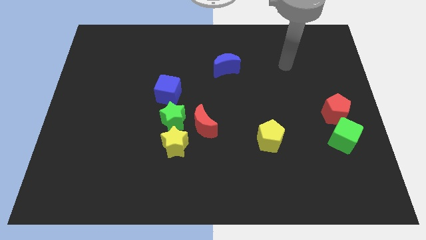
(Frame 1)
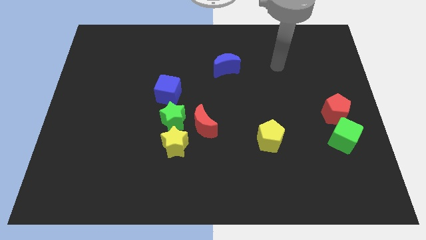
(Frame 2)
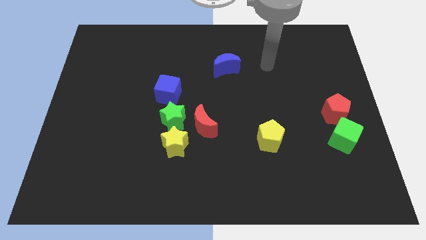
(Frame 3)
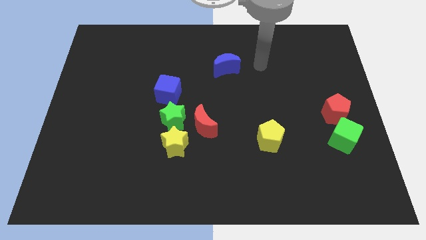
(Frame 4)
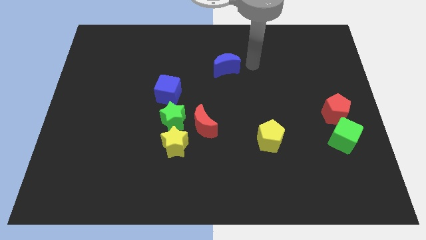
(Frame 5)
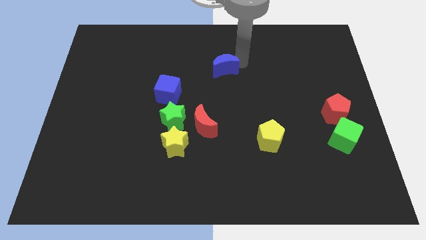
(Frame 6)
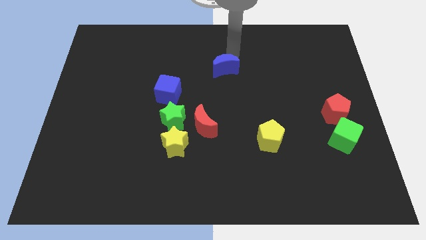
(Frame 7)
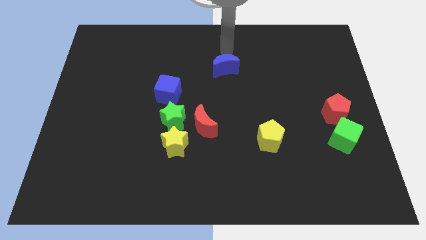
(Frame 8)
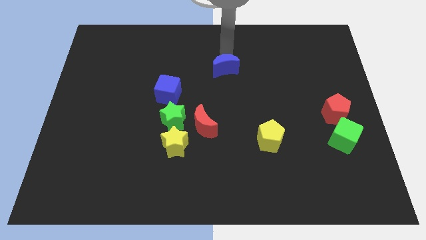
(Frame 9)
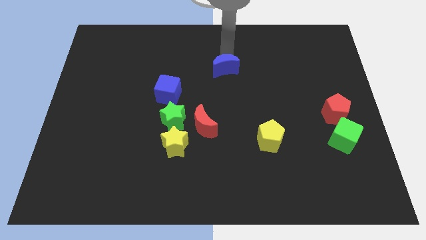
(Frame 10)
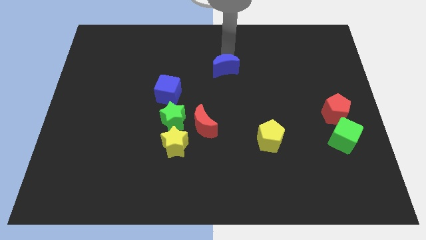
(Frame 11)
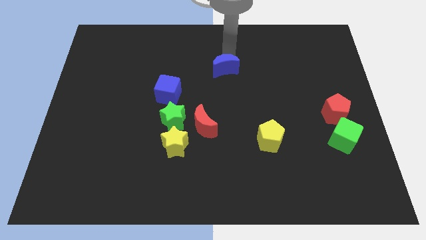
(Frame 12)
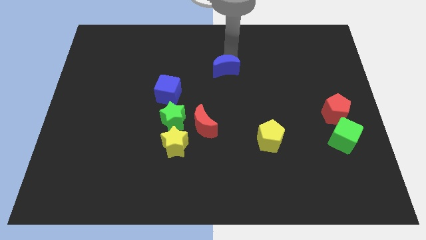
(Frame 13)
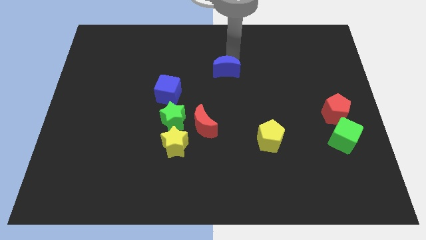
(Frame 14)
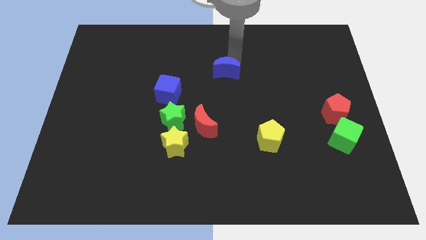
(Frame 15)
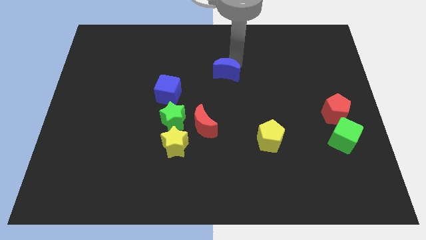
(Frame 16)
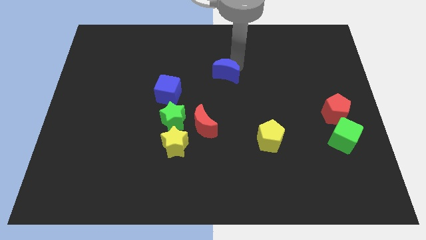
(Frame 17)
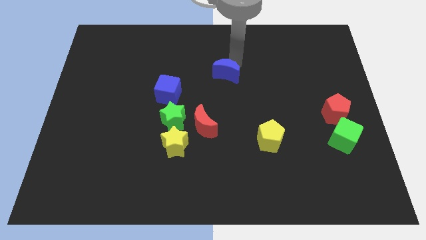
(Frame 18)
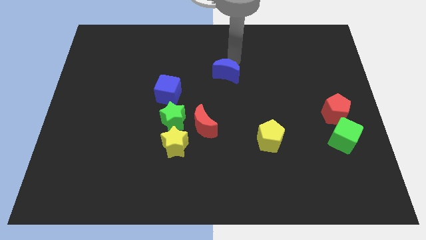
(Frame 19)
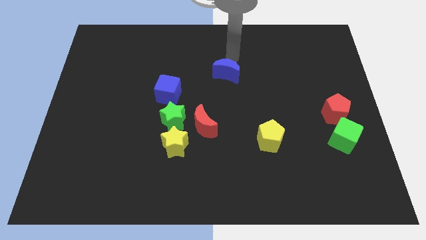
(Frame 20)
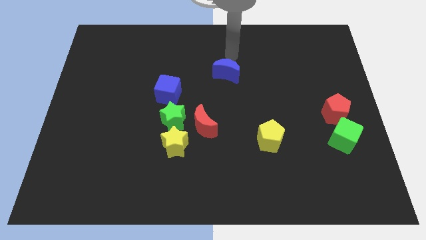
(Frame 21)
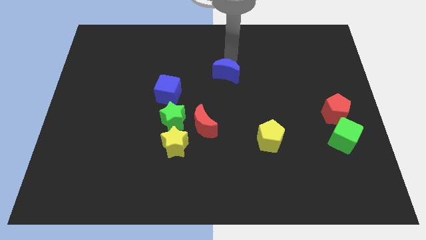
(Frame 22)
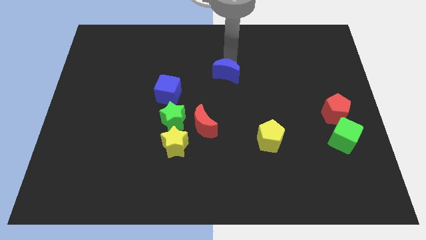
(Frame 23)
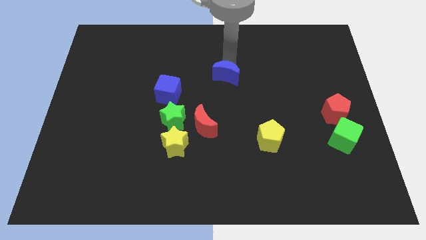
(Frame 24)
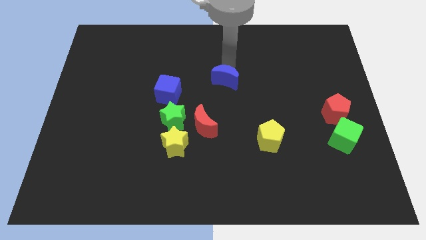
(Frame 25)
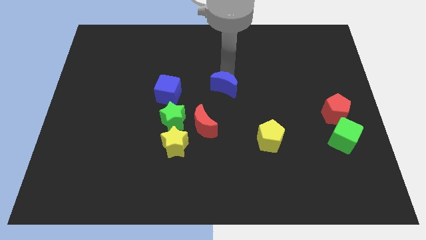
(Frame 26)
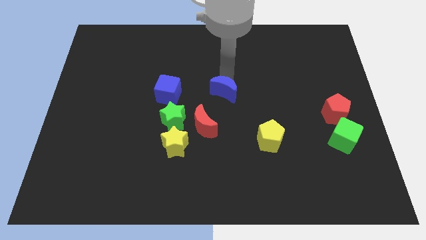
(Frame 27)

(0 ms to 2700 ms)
slightly slide the blue moon down

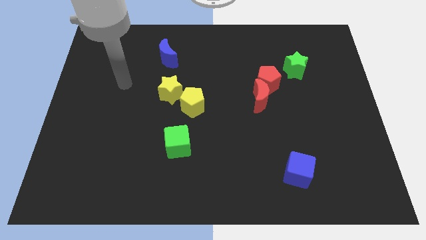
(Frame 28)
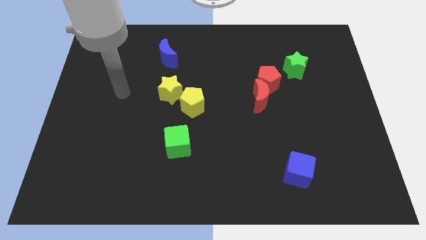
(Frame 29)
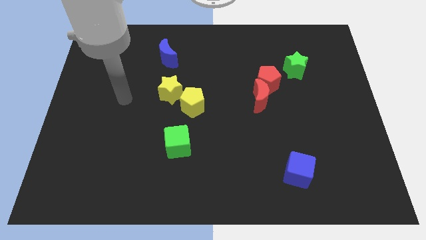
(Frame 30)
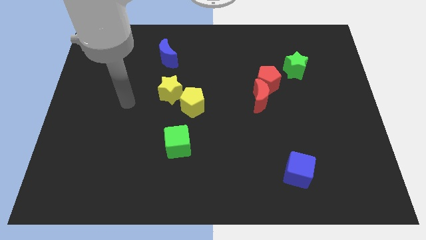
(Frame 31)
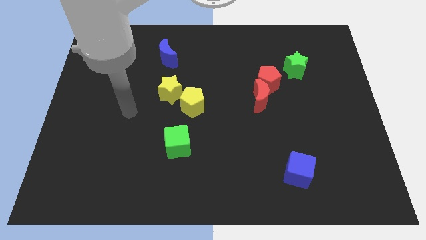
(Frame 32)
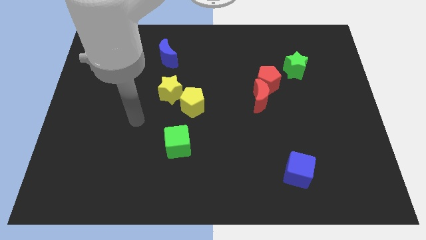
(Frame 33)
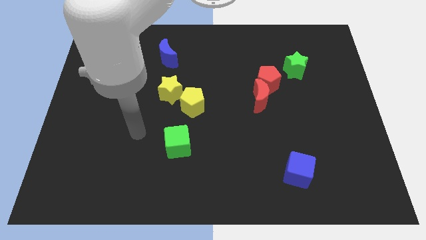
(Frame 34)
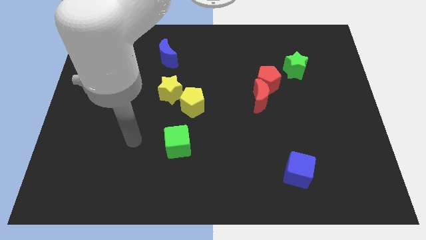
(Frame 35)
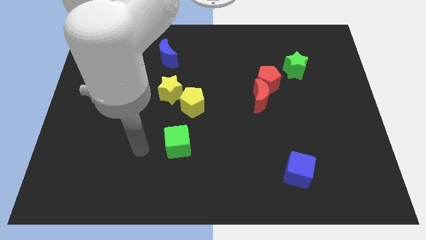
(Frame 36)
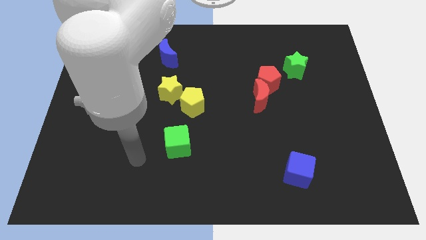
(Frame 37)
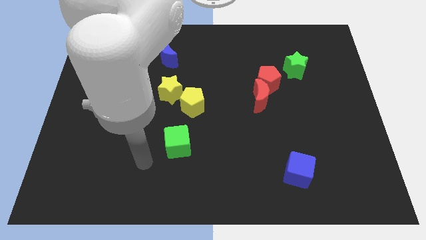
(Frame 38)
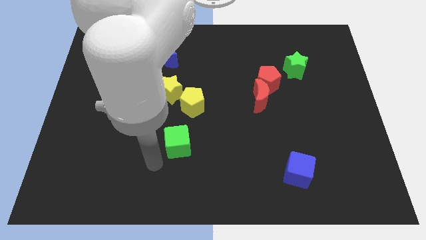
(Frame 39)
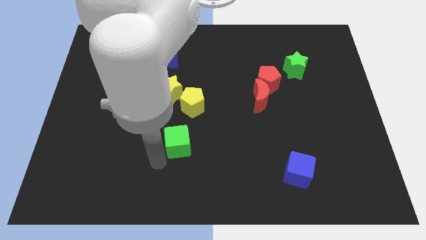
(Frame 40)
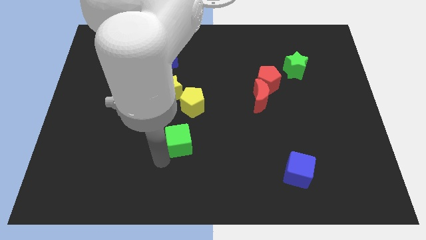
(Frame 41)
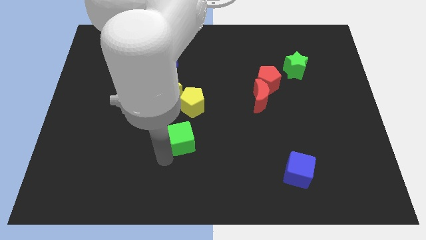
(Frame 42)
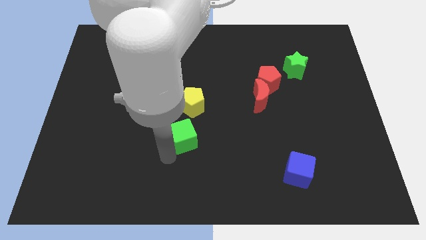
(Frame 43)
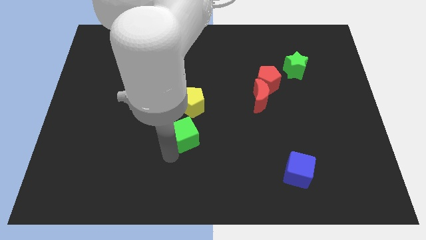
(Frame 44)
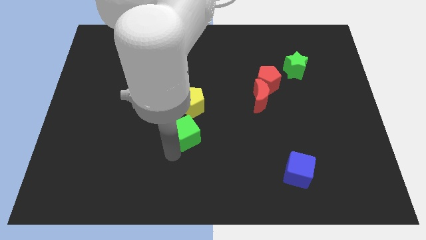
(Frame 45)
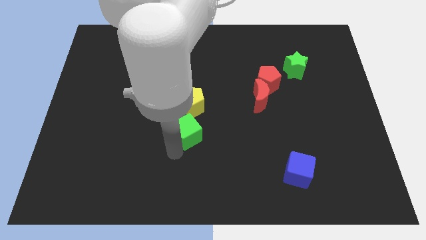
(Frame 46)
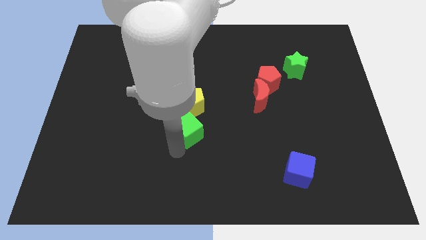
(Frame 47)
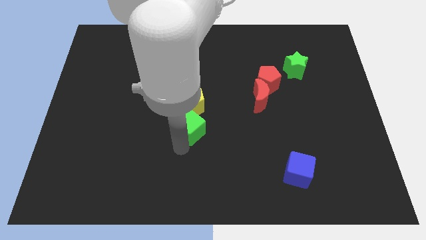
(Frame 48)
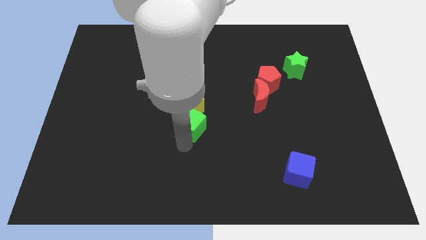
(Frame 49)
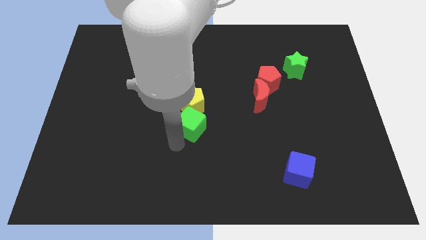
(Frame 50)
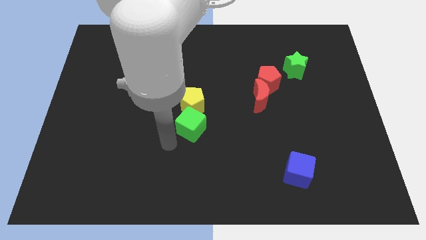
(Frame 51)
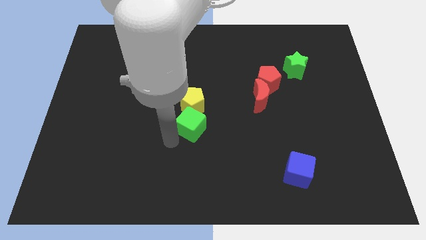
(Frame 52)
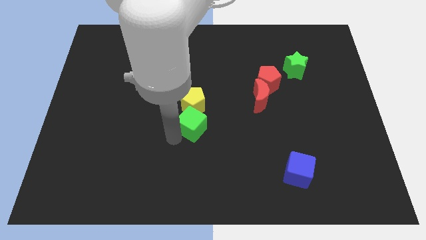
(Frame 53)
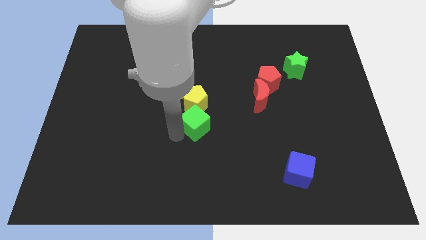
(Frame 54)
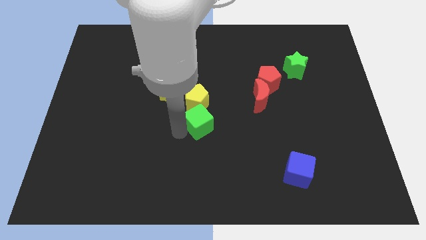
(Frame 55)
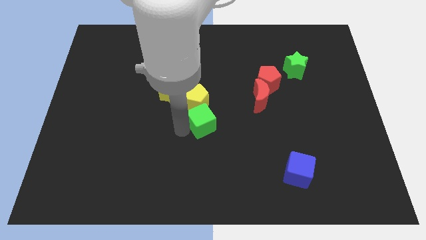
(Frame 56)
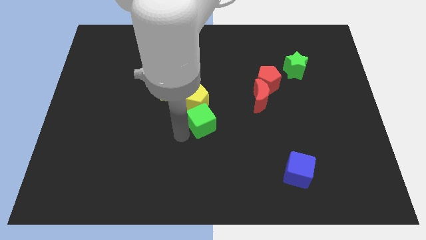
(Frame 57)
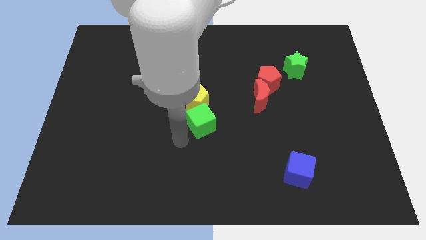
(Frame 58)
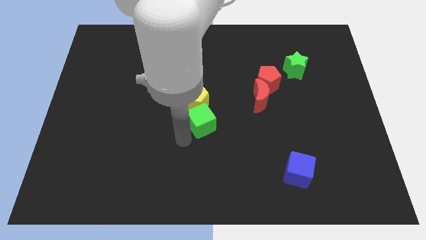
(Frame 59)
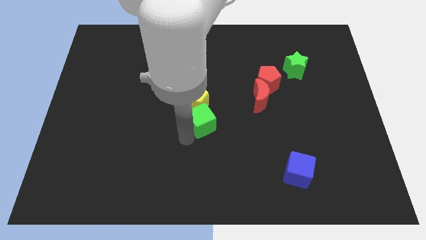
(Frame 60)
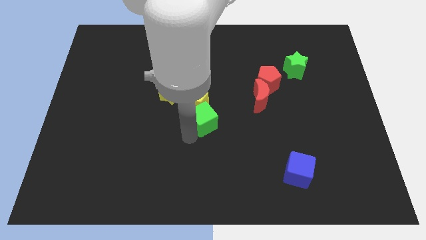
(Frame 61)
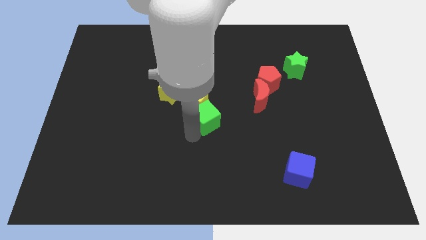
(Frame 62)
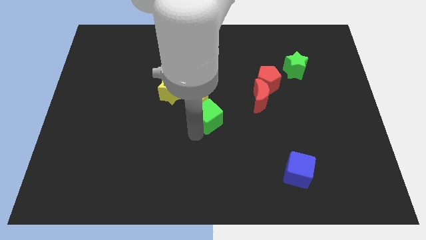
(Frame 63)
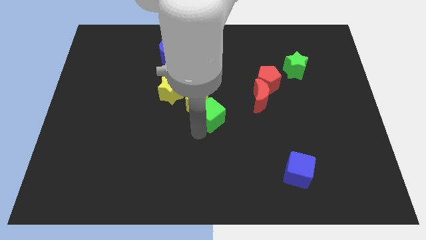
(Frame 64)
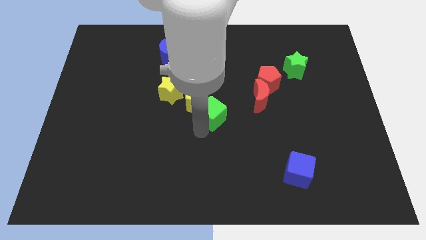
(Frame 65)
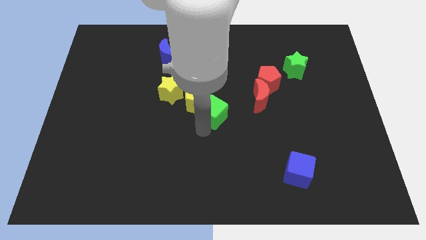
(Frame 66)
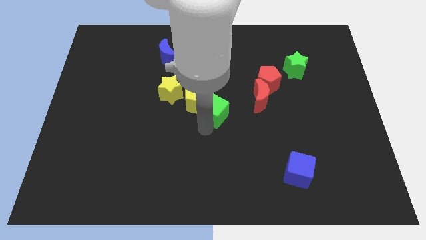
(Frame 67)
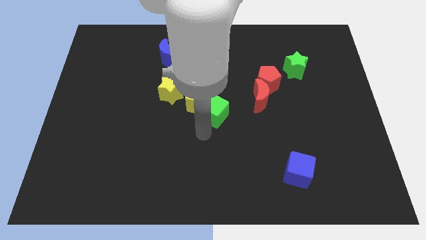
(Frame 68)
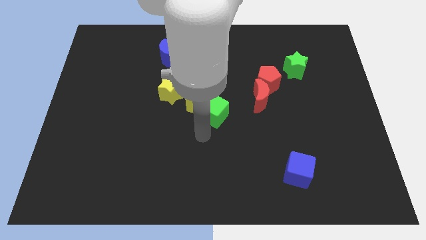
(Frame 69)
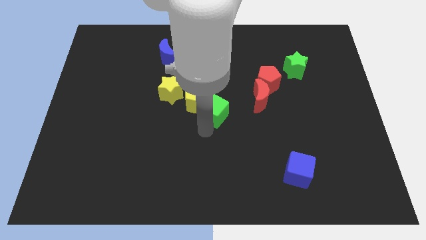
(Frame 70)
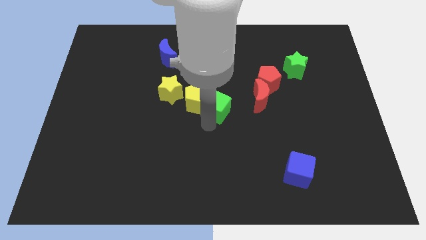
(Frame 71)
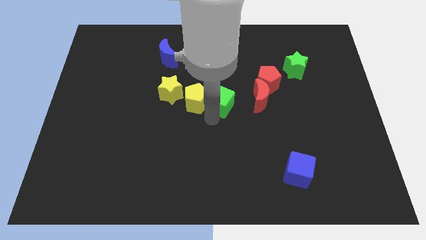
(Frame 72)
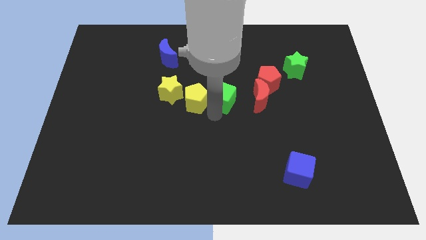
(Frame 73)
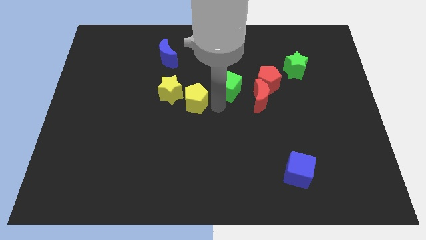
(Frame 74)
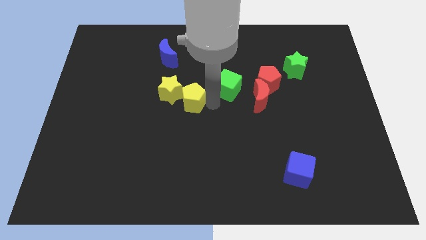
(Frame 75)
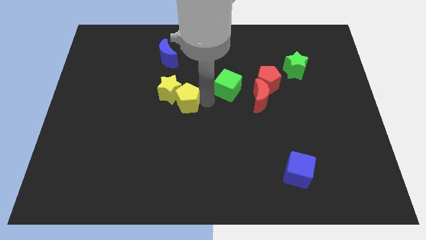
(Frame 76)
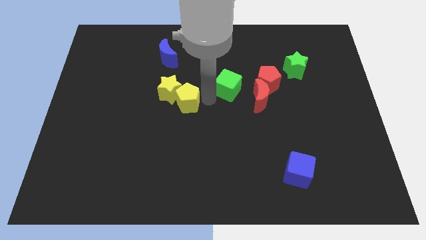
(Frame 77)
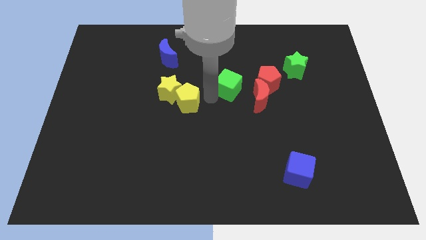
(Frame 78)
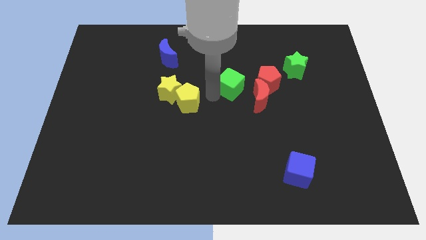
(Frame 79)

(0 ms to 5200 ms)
move the green cube up and right

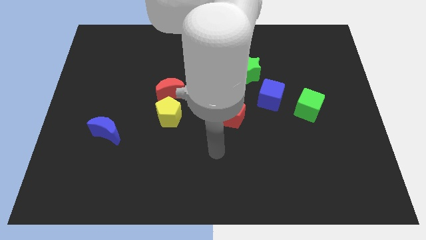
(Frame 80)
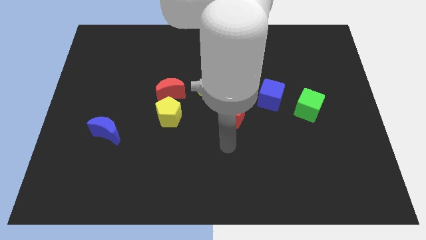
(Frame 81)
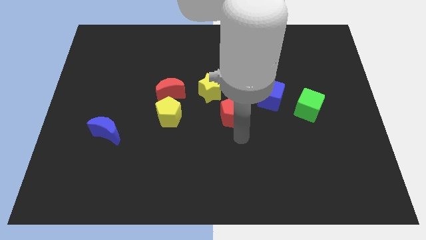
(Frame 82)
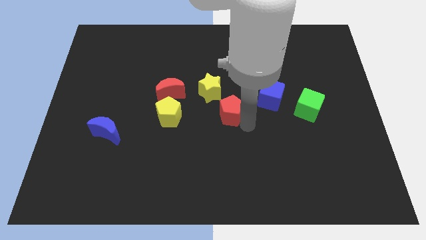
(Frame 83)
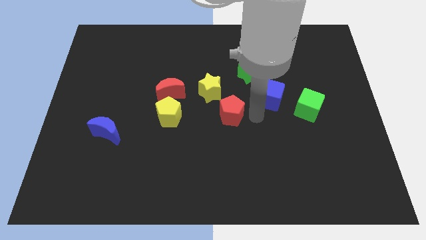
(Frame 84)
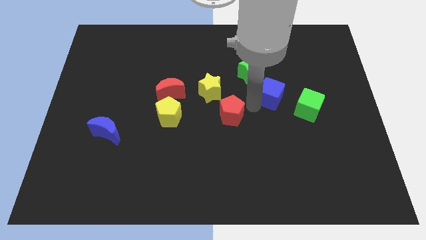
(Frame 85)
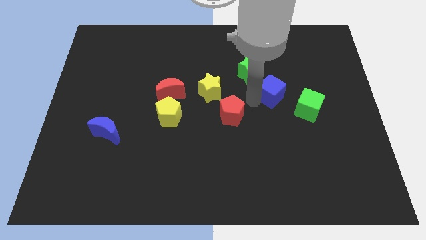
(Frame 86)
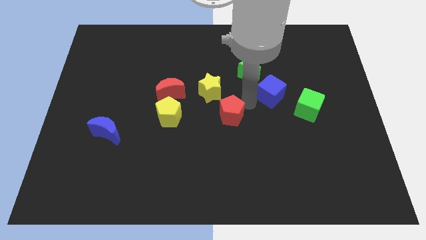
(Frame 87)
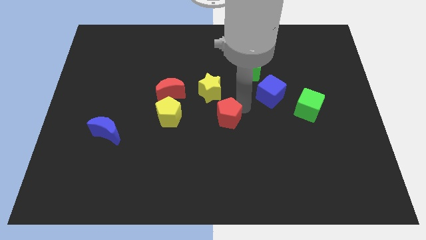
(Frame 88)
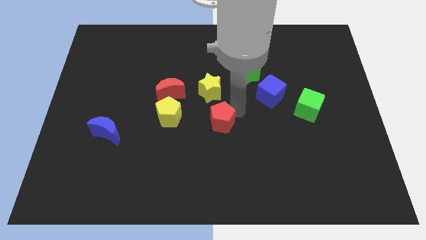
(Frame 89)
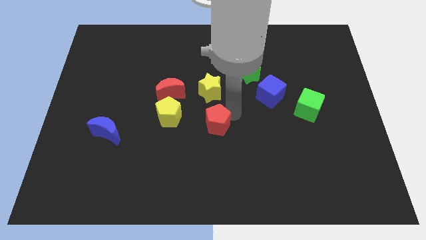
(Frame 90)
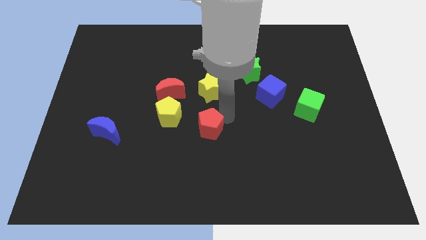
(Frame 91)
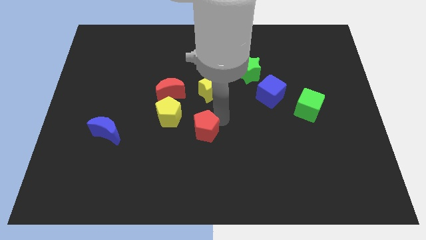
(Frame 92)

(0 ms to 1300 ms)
slide the red pentagon a bit downwards and then to the left
